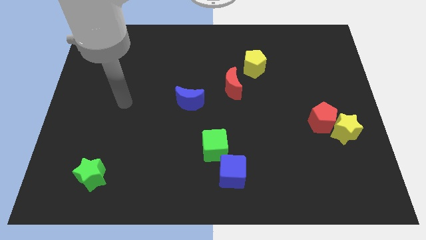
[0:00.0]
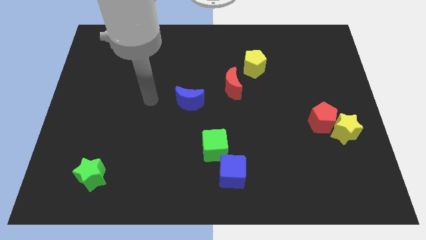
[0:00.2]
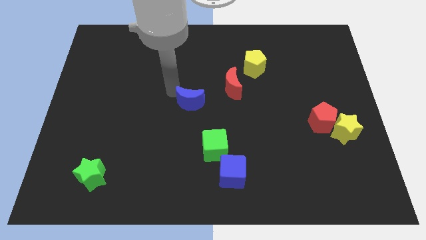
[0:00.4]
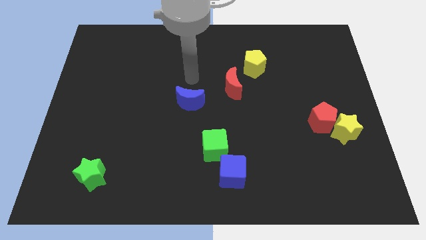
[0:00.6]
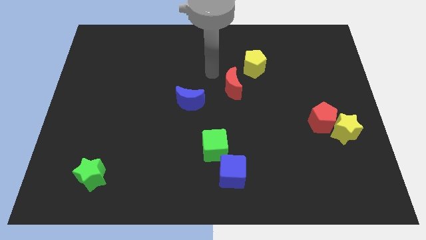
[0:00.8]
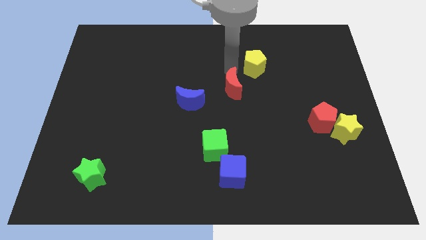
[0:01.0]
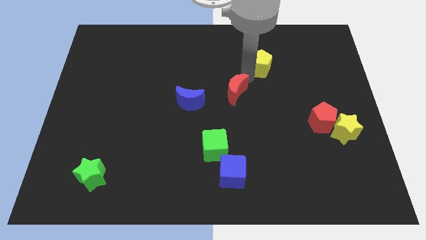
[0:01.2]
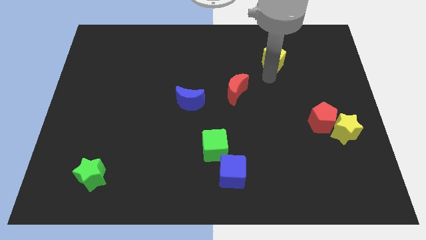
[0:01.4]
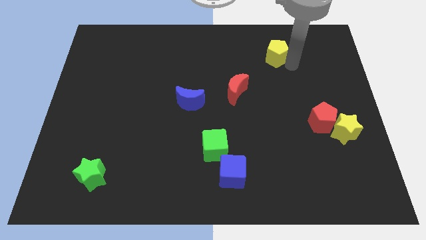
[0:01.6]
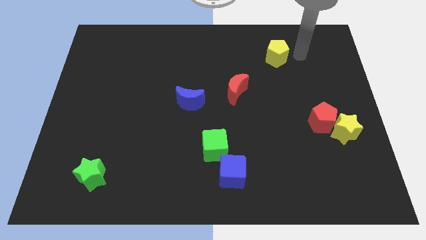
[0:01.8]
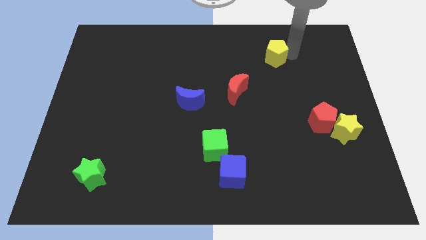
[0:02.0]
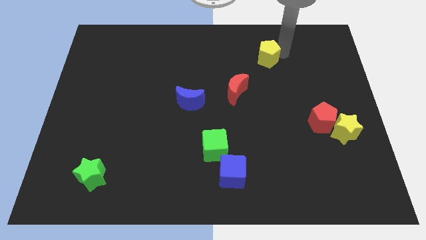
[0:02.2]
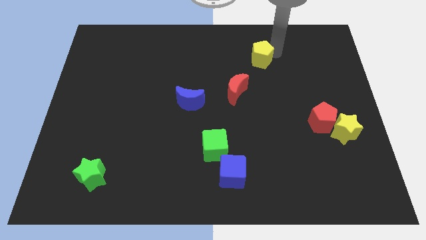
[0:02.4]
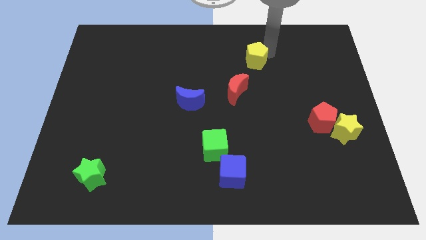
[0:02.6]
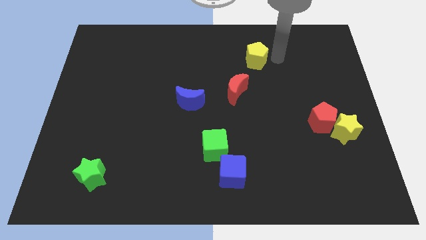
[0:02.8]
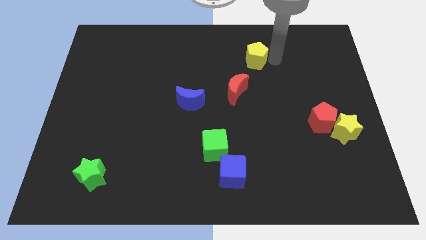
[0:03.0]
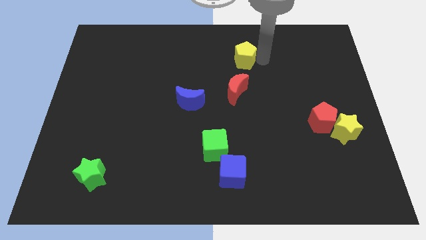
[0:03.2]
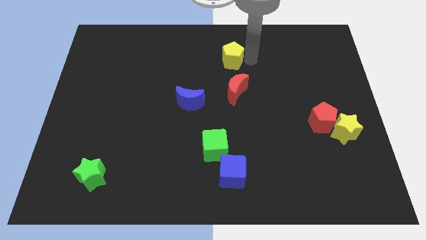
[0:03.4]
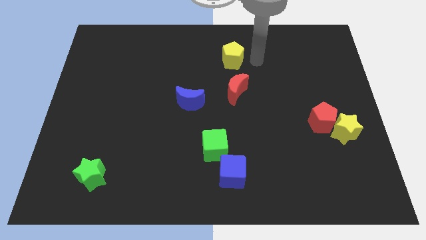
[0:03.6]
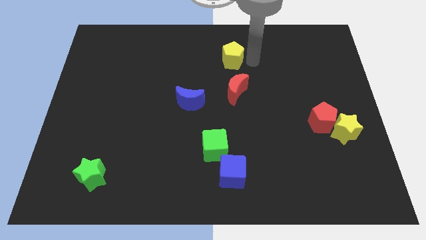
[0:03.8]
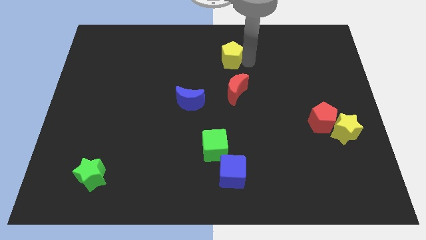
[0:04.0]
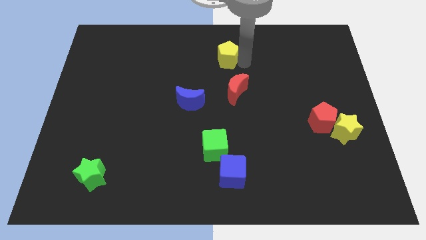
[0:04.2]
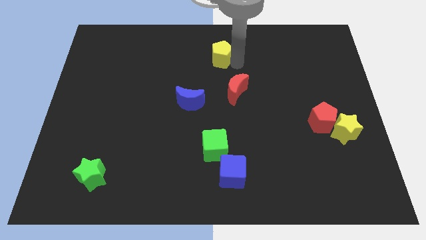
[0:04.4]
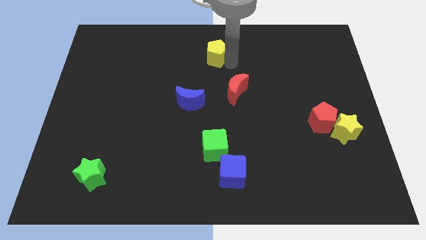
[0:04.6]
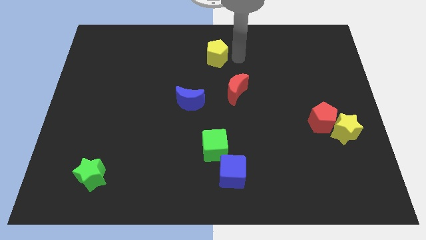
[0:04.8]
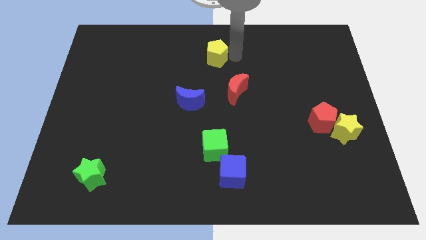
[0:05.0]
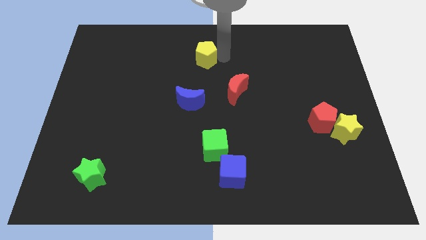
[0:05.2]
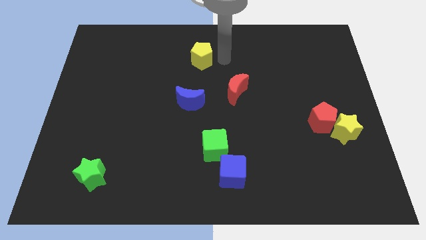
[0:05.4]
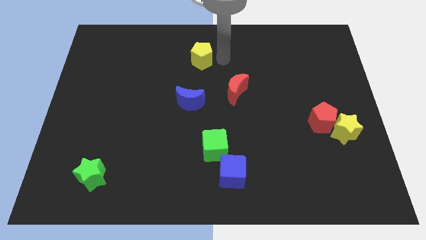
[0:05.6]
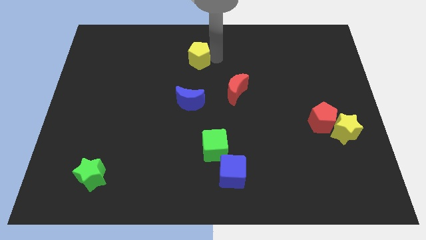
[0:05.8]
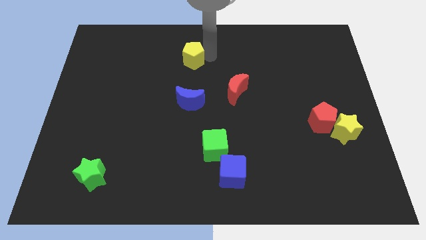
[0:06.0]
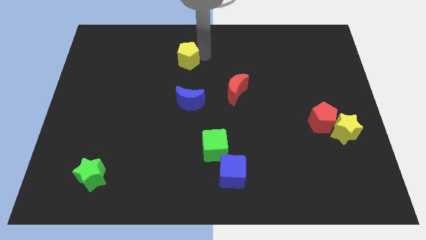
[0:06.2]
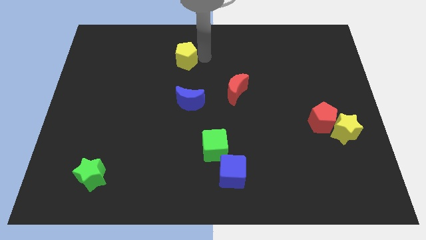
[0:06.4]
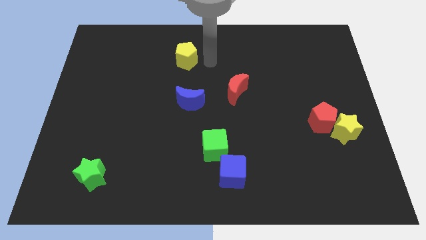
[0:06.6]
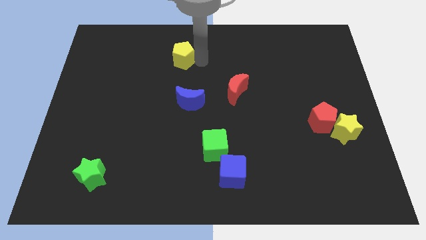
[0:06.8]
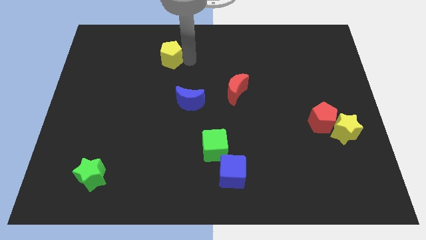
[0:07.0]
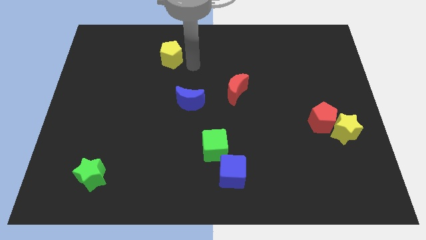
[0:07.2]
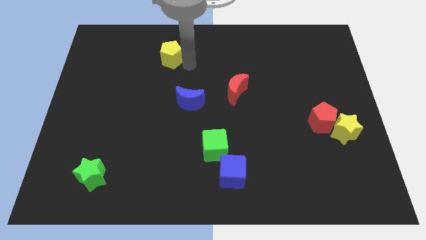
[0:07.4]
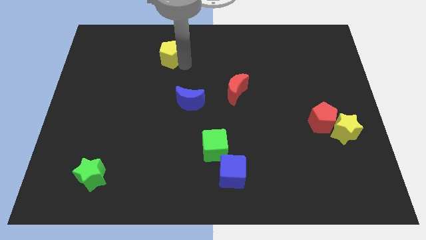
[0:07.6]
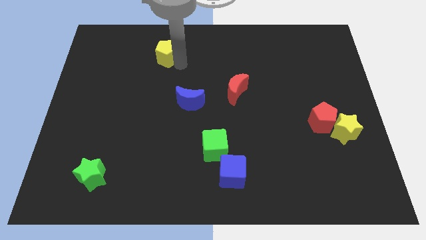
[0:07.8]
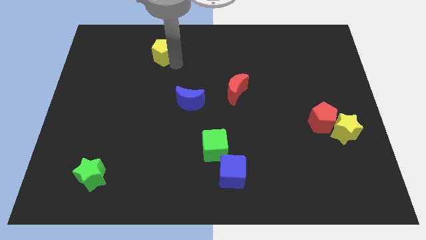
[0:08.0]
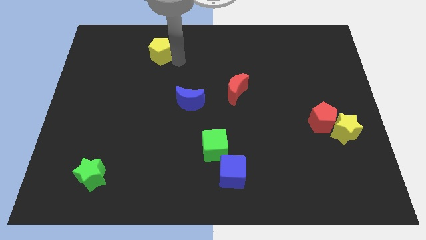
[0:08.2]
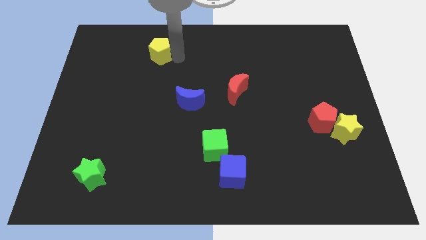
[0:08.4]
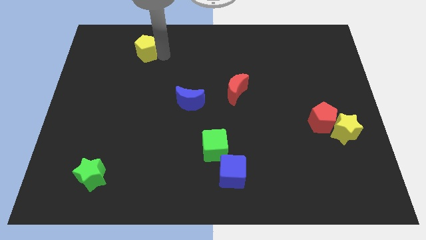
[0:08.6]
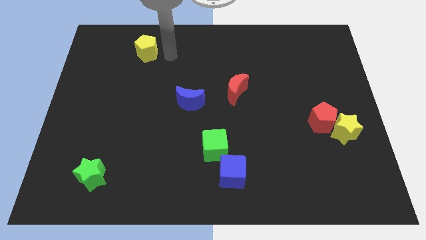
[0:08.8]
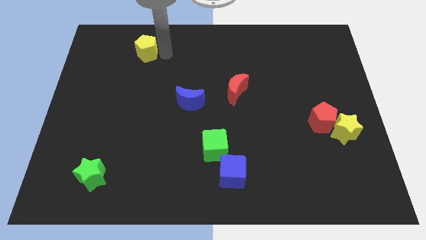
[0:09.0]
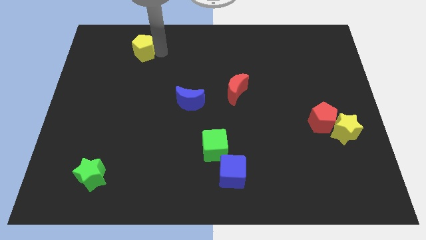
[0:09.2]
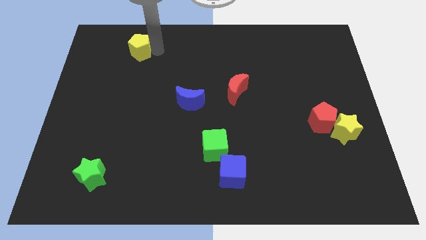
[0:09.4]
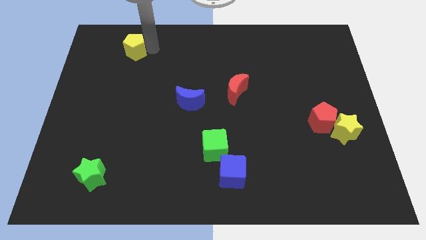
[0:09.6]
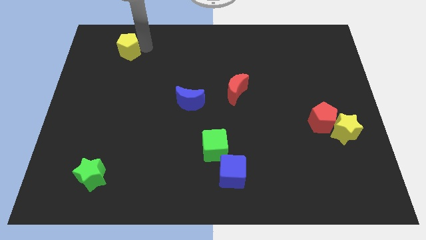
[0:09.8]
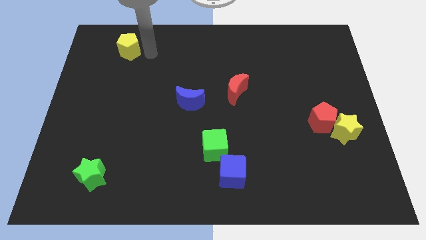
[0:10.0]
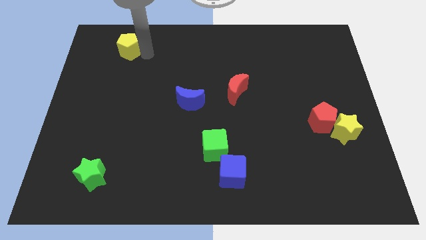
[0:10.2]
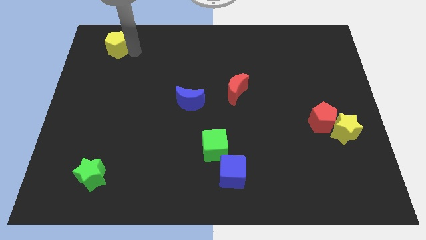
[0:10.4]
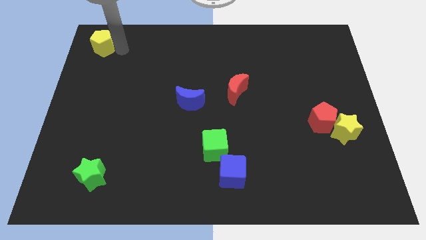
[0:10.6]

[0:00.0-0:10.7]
move the yellow pentagon to the top left

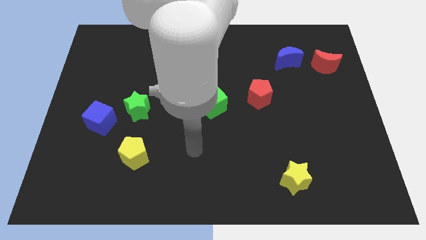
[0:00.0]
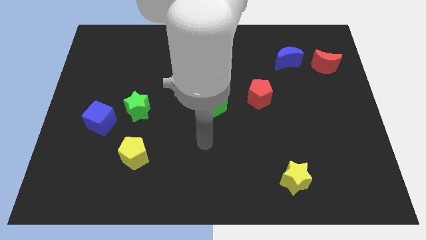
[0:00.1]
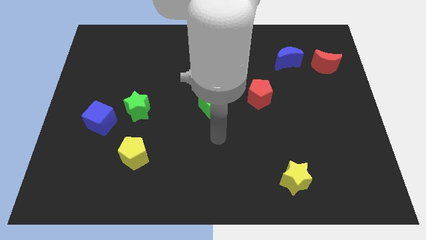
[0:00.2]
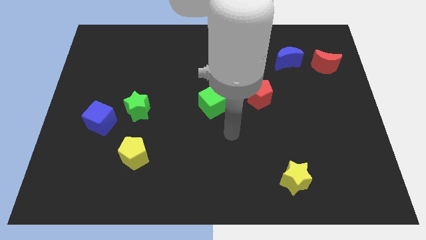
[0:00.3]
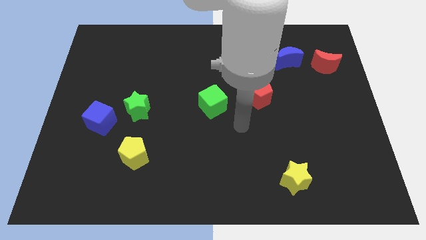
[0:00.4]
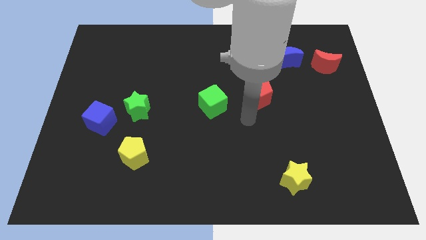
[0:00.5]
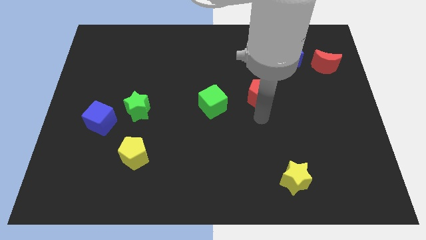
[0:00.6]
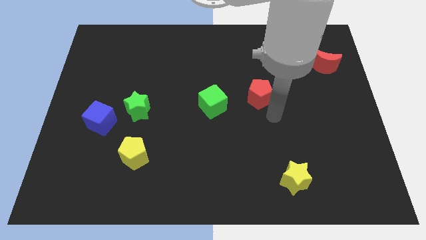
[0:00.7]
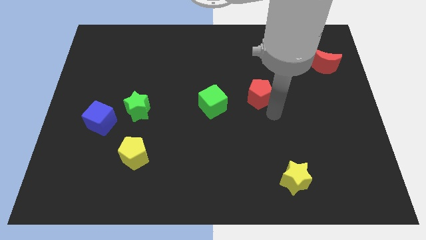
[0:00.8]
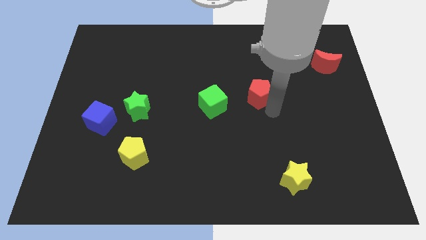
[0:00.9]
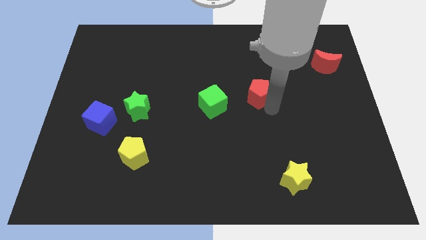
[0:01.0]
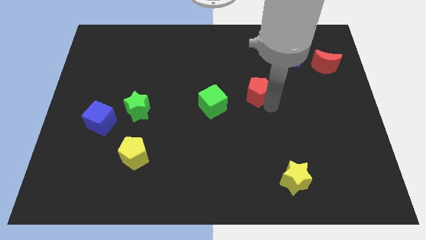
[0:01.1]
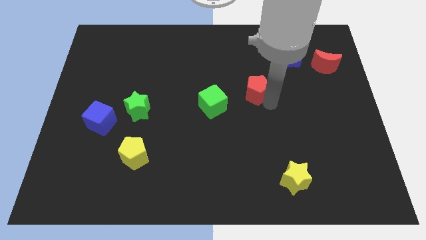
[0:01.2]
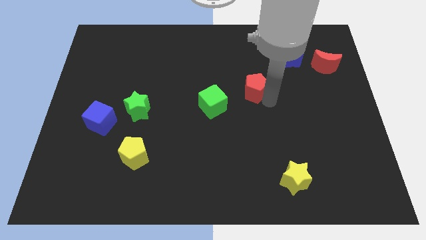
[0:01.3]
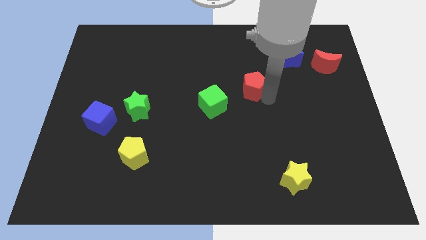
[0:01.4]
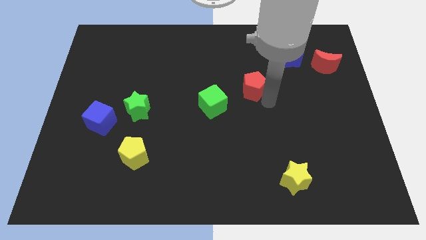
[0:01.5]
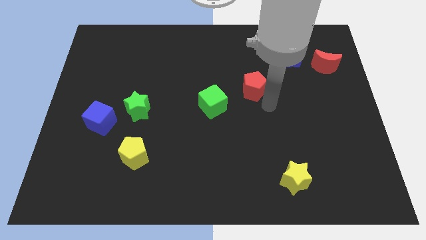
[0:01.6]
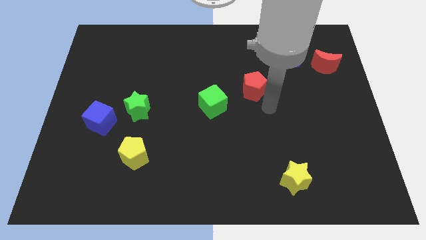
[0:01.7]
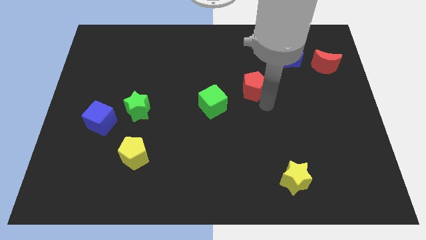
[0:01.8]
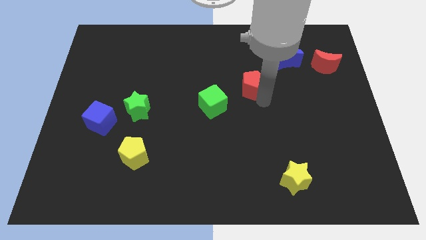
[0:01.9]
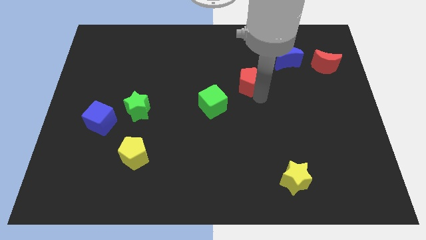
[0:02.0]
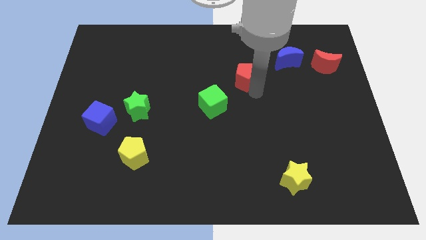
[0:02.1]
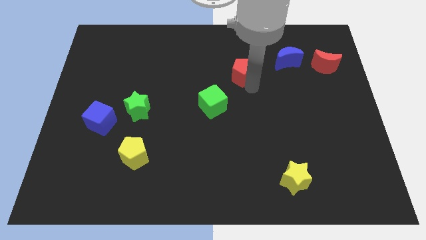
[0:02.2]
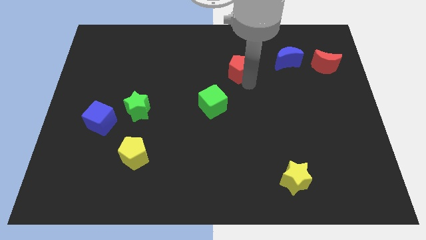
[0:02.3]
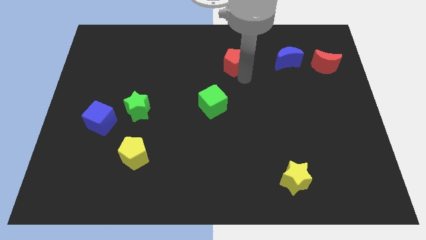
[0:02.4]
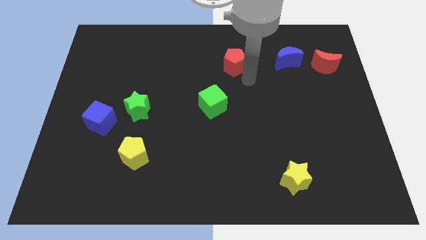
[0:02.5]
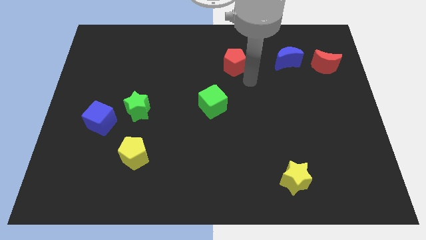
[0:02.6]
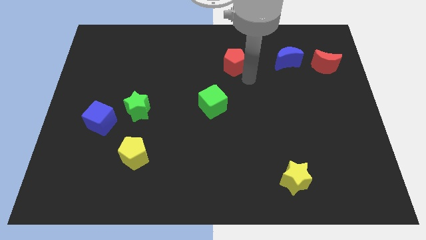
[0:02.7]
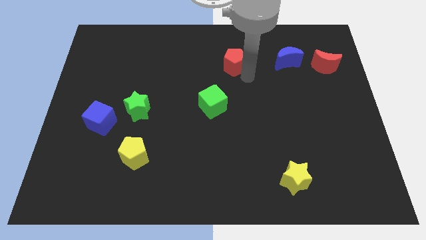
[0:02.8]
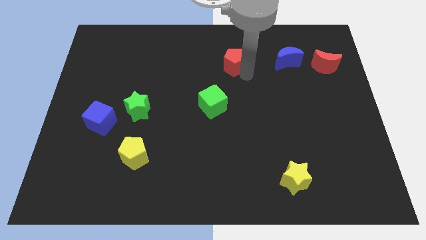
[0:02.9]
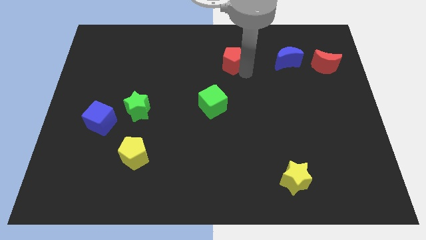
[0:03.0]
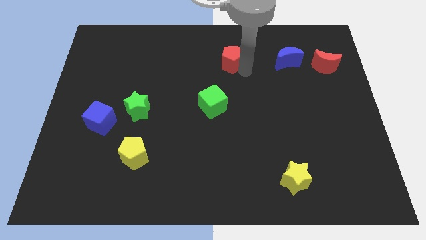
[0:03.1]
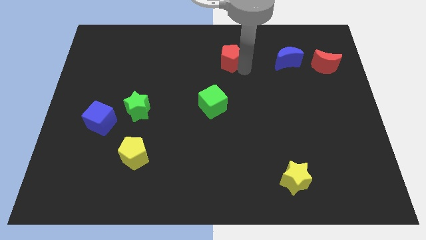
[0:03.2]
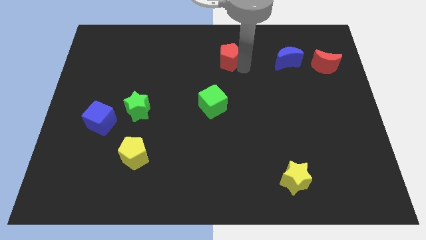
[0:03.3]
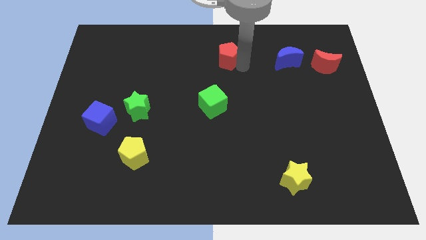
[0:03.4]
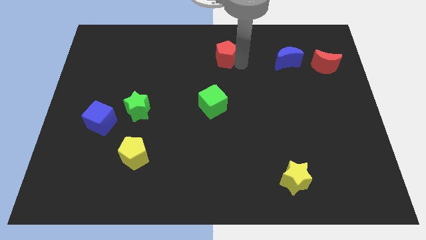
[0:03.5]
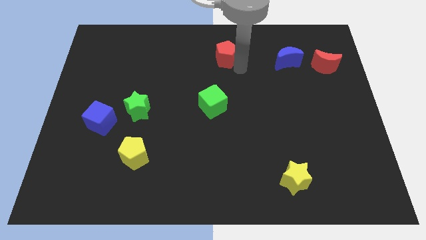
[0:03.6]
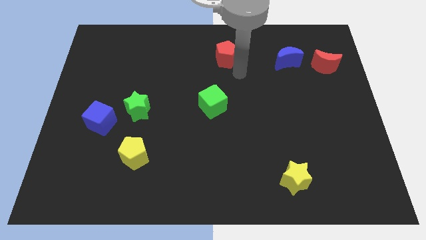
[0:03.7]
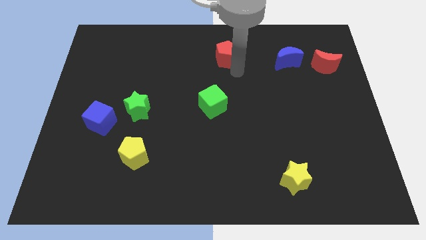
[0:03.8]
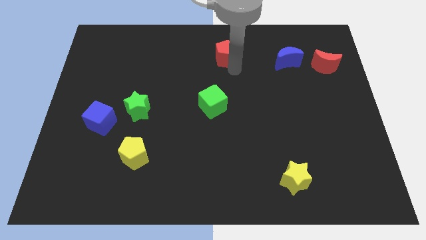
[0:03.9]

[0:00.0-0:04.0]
move the red pentagon to the top side
